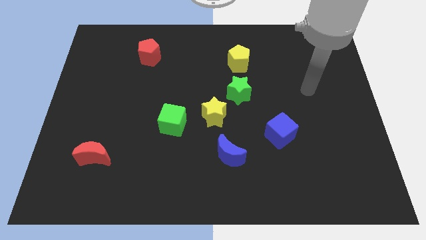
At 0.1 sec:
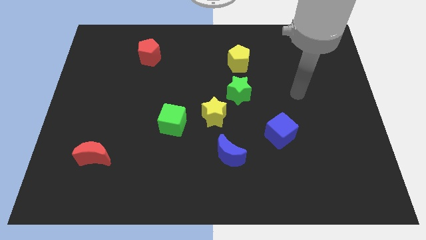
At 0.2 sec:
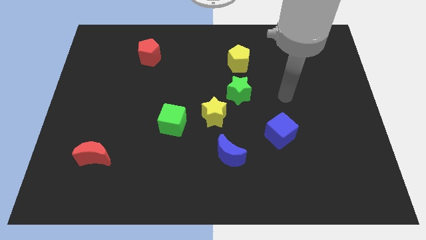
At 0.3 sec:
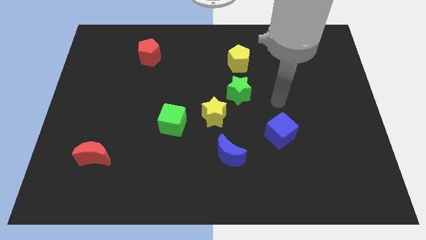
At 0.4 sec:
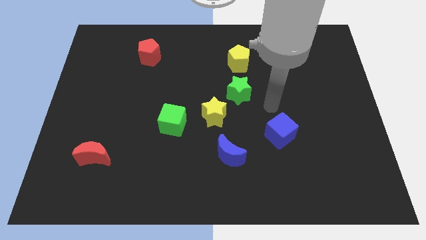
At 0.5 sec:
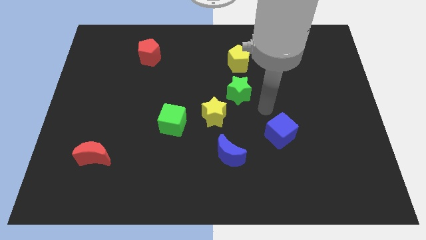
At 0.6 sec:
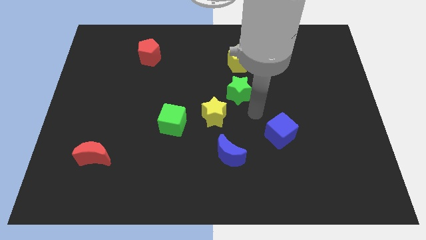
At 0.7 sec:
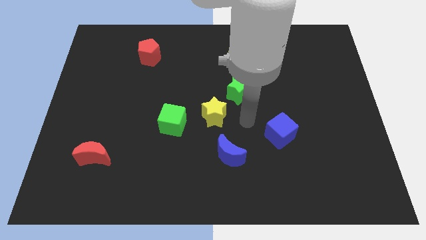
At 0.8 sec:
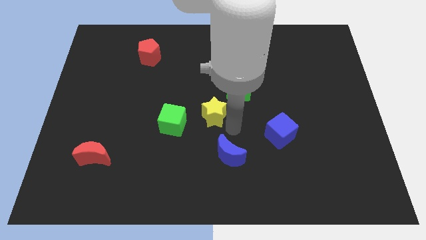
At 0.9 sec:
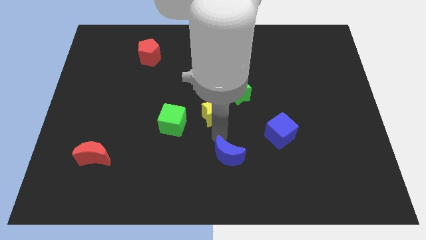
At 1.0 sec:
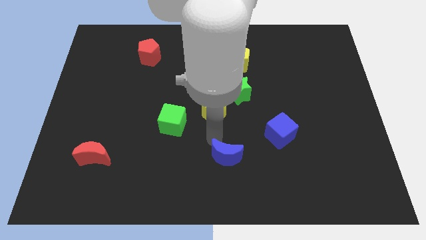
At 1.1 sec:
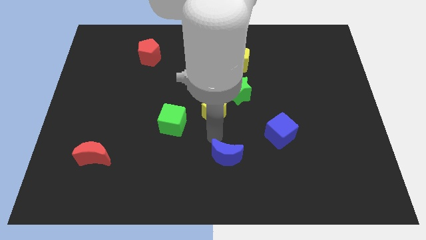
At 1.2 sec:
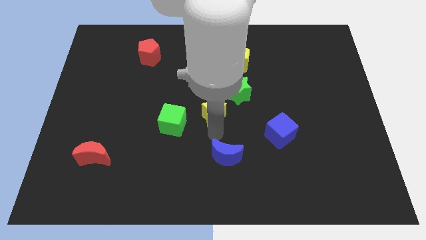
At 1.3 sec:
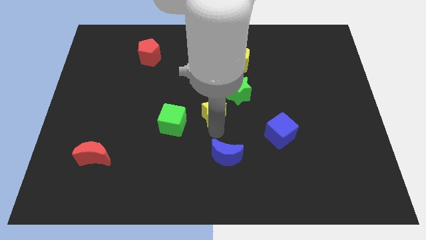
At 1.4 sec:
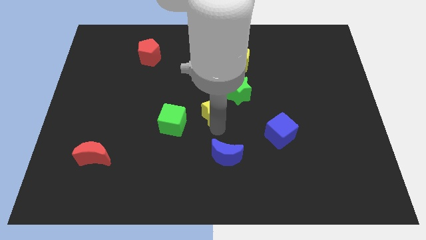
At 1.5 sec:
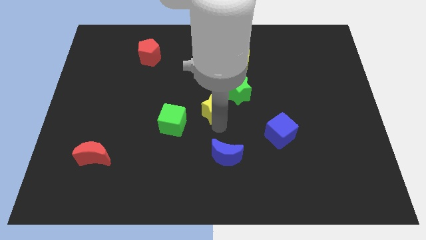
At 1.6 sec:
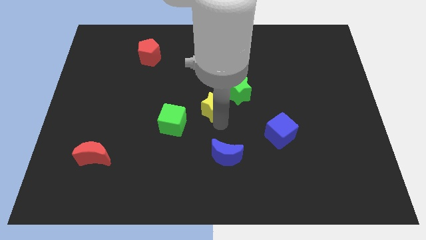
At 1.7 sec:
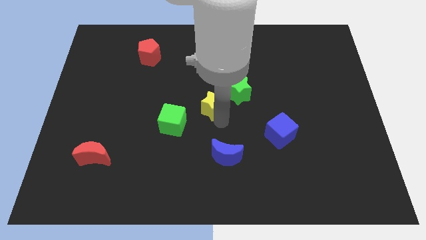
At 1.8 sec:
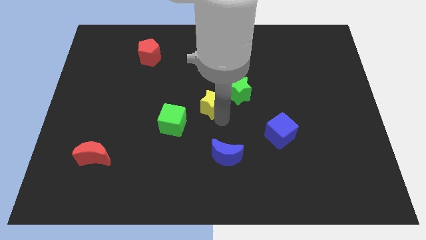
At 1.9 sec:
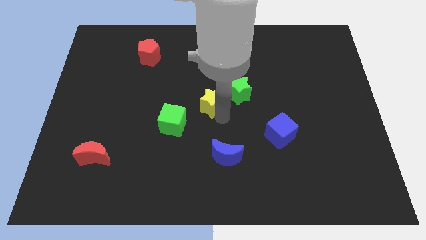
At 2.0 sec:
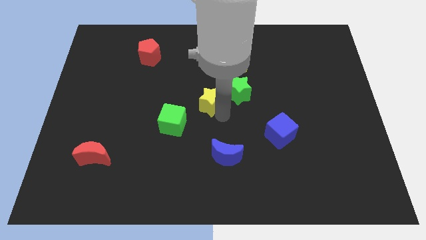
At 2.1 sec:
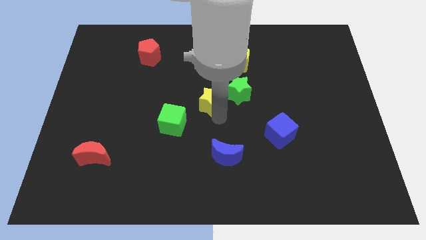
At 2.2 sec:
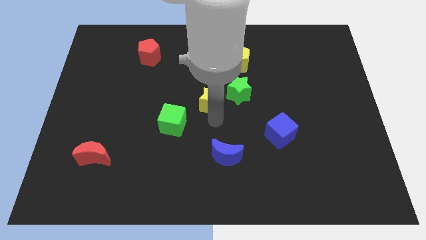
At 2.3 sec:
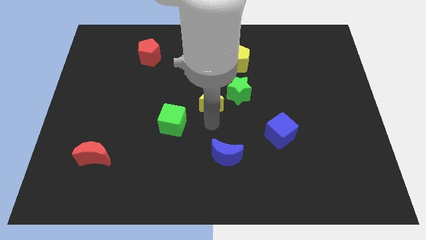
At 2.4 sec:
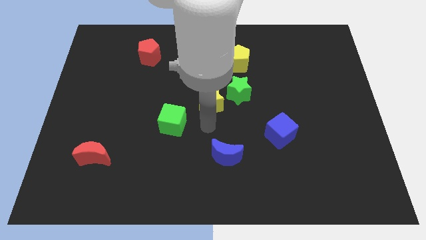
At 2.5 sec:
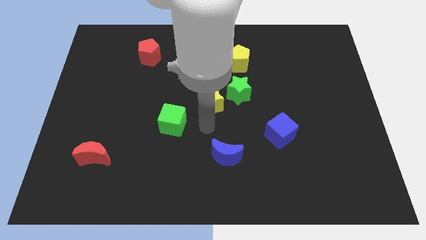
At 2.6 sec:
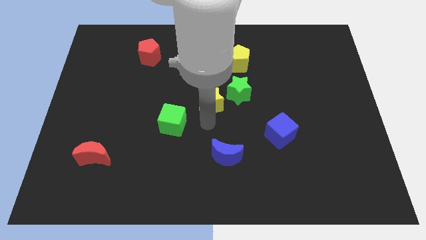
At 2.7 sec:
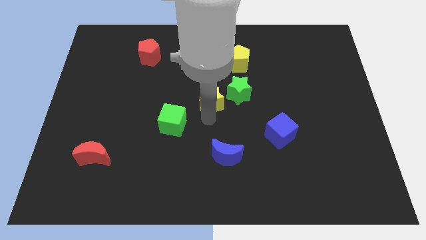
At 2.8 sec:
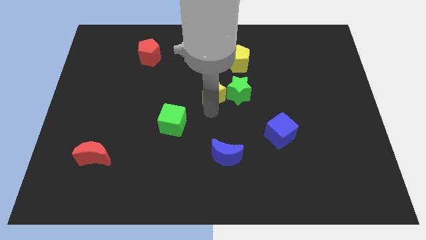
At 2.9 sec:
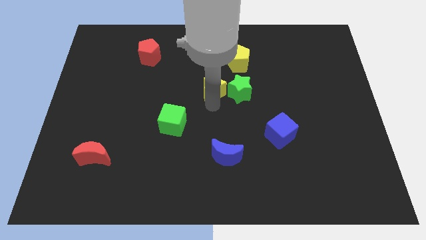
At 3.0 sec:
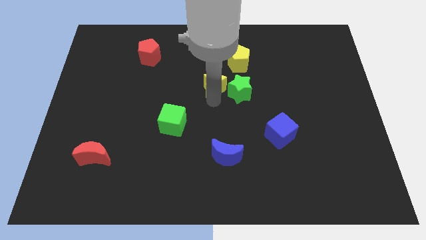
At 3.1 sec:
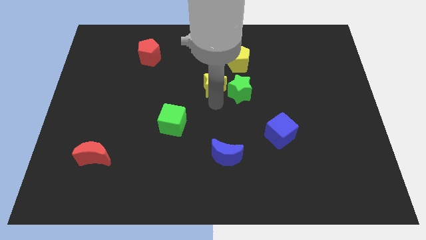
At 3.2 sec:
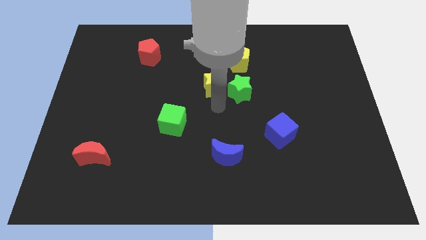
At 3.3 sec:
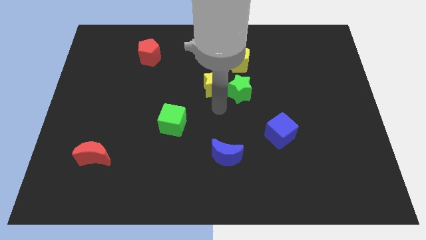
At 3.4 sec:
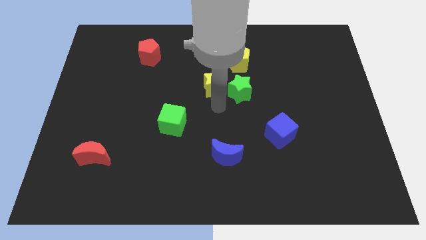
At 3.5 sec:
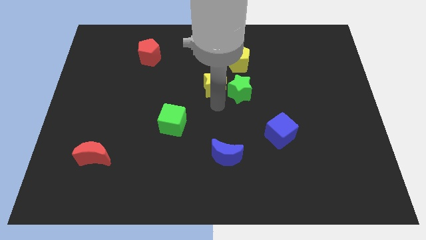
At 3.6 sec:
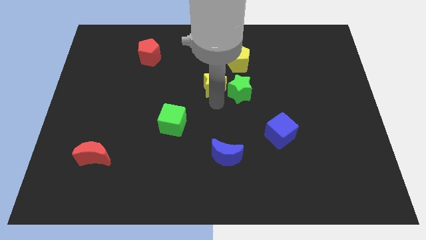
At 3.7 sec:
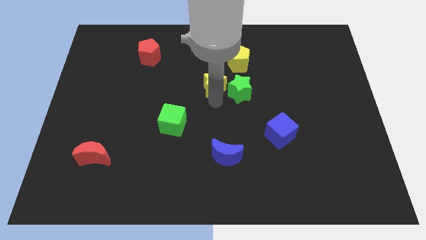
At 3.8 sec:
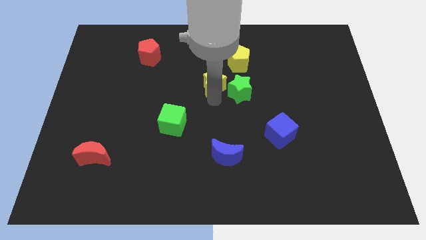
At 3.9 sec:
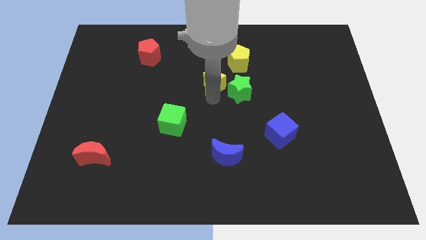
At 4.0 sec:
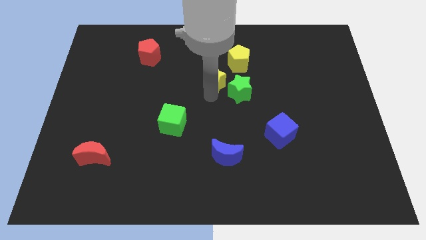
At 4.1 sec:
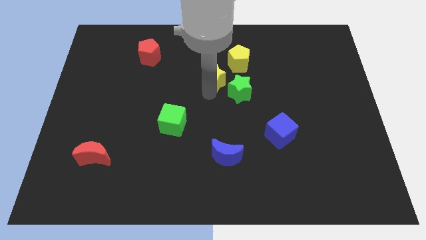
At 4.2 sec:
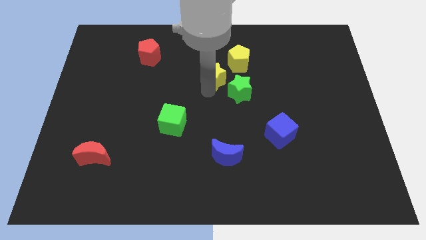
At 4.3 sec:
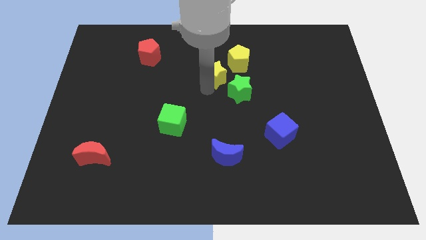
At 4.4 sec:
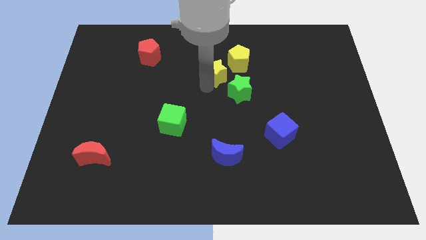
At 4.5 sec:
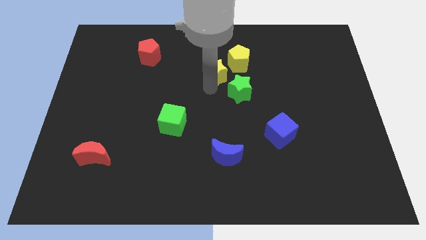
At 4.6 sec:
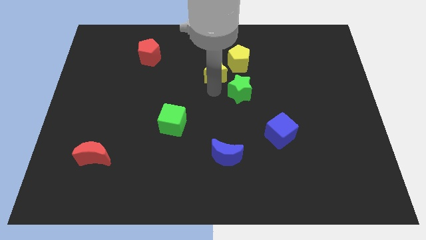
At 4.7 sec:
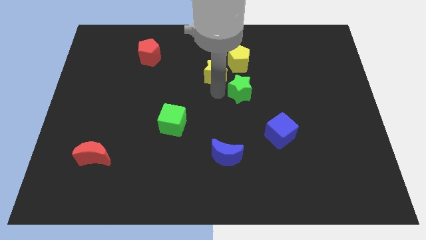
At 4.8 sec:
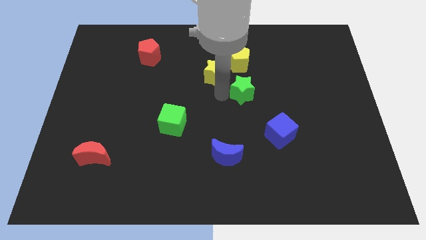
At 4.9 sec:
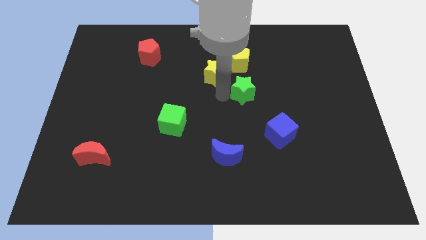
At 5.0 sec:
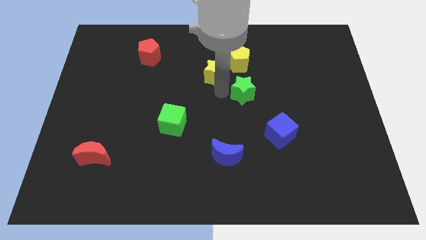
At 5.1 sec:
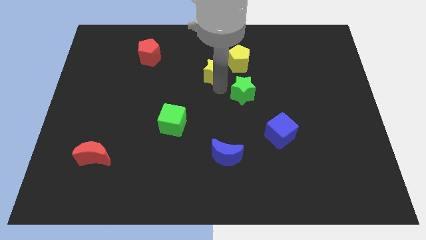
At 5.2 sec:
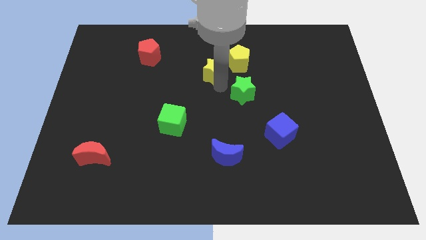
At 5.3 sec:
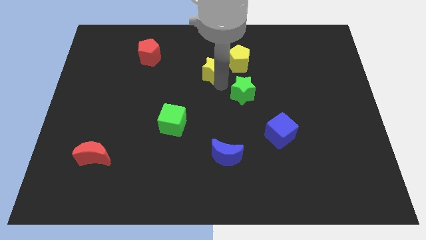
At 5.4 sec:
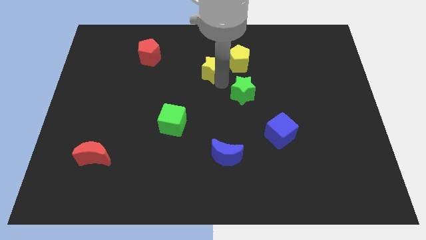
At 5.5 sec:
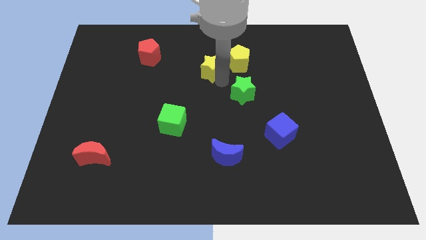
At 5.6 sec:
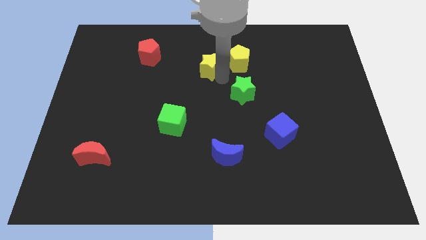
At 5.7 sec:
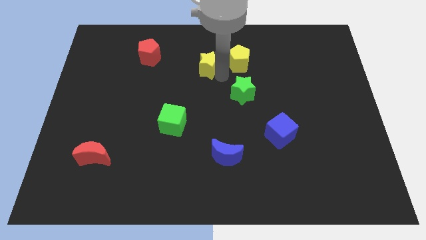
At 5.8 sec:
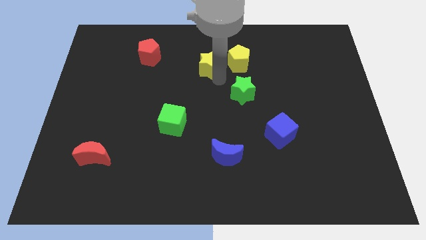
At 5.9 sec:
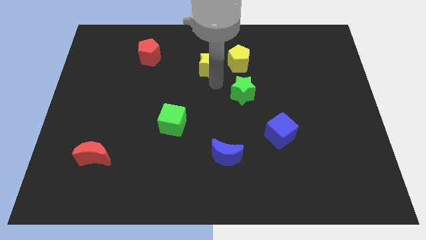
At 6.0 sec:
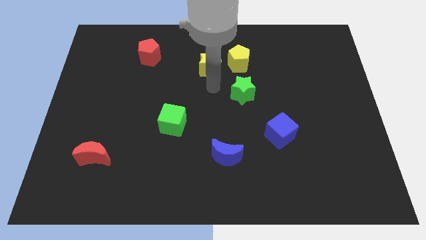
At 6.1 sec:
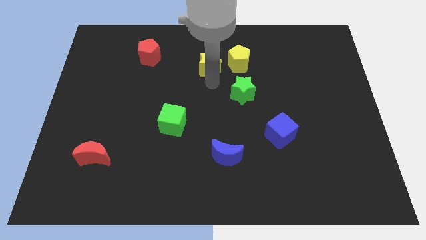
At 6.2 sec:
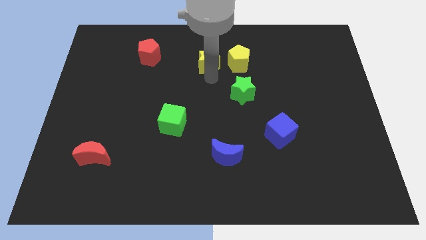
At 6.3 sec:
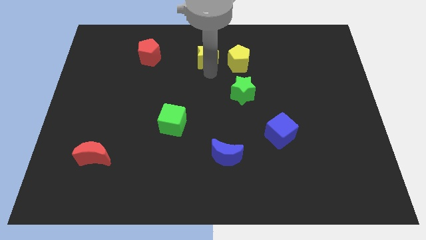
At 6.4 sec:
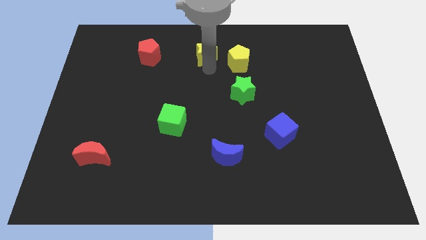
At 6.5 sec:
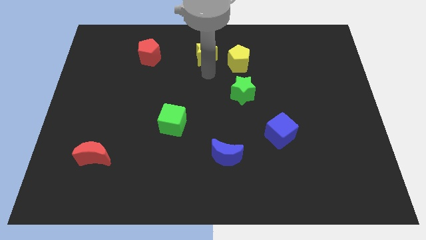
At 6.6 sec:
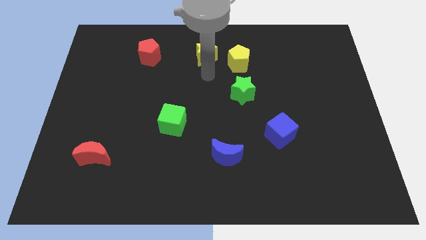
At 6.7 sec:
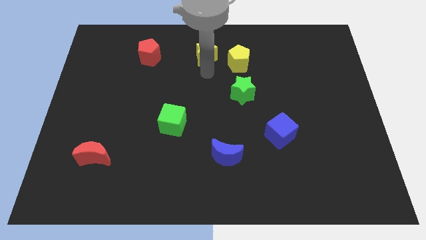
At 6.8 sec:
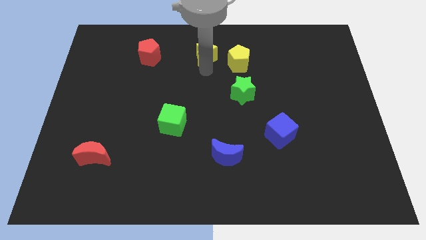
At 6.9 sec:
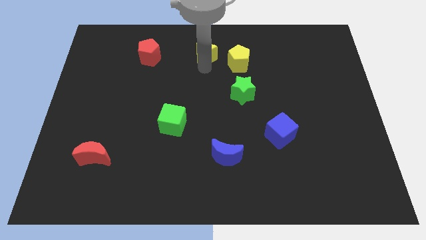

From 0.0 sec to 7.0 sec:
slide the yellow star to the top side
